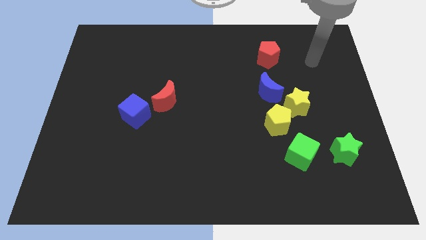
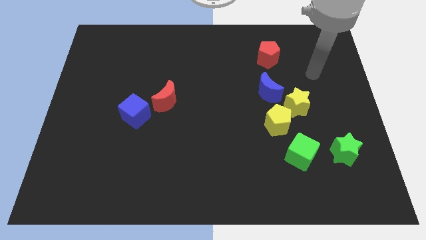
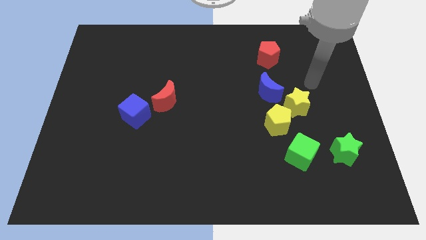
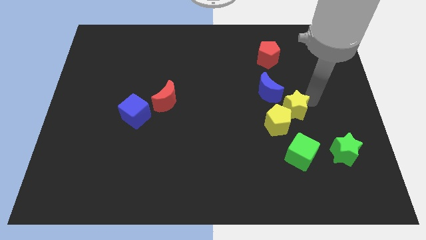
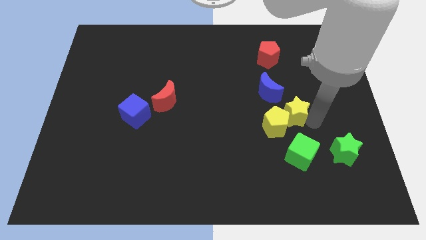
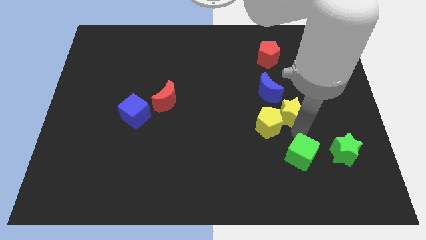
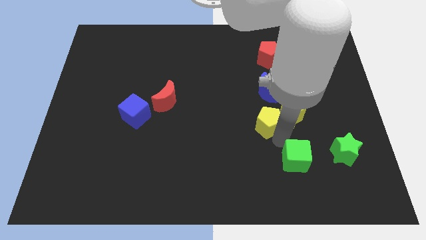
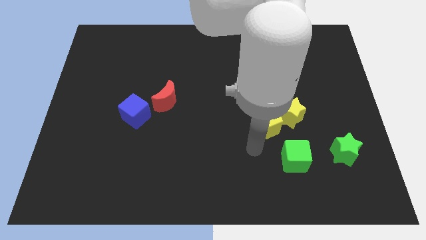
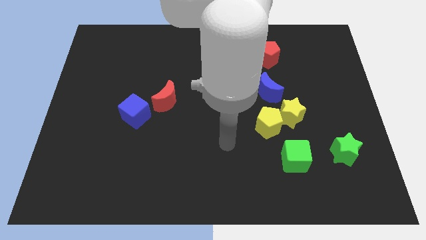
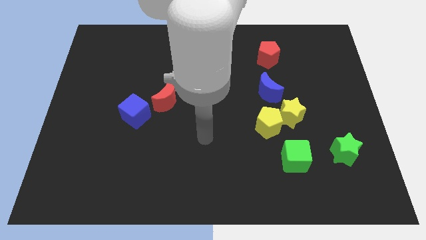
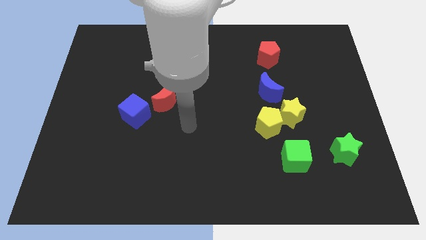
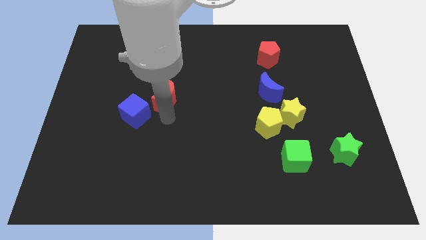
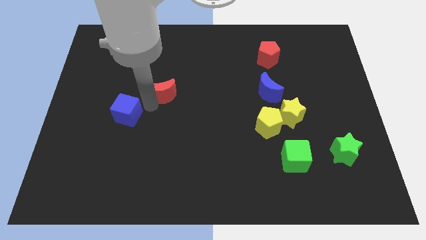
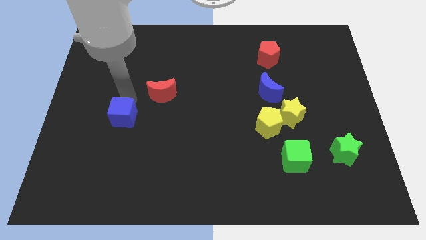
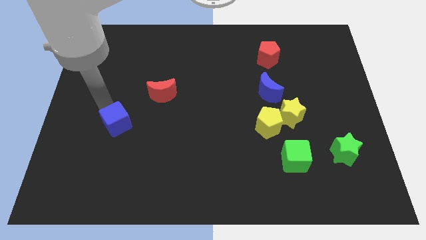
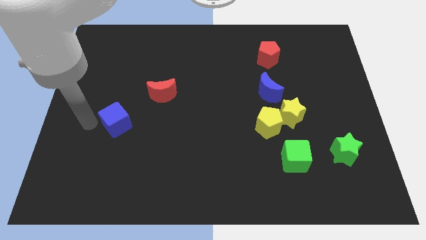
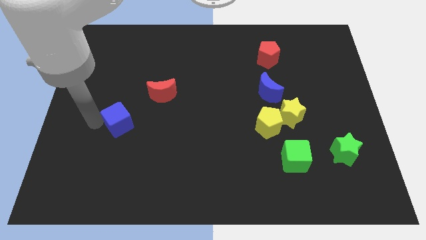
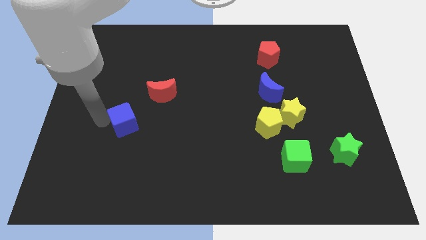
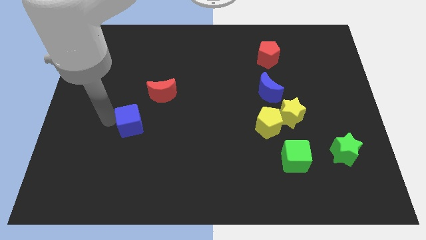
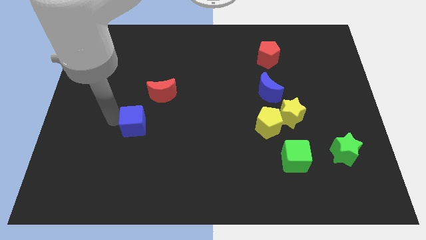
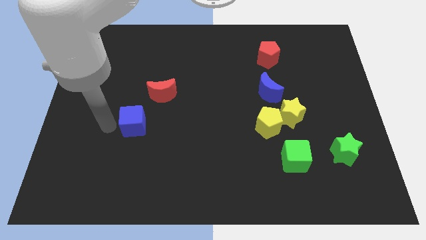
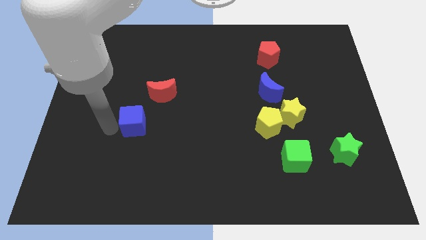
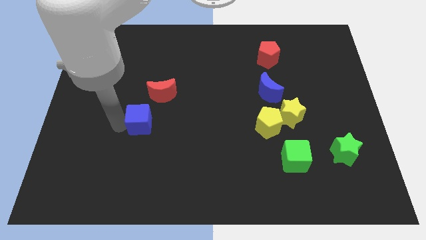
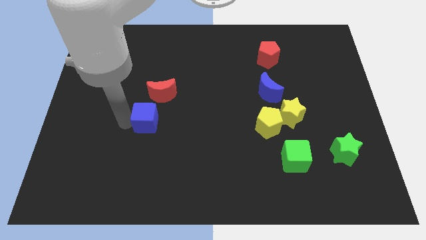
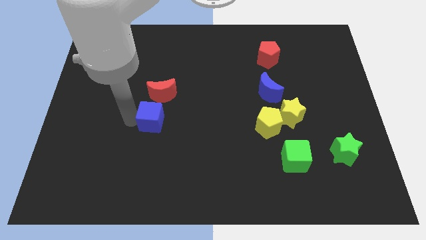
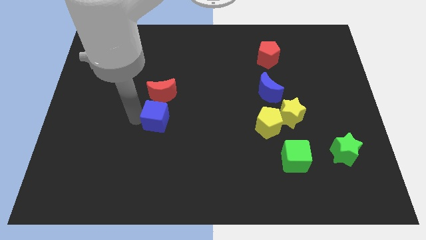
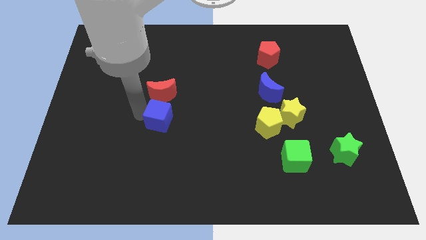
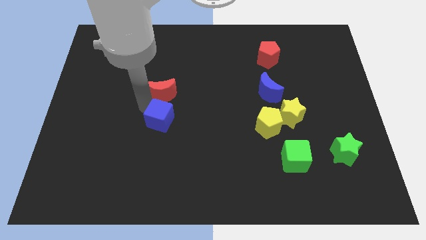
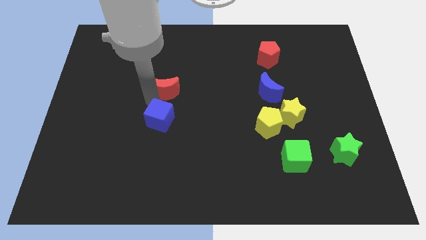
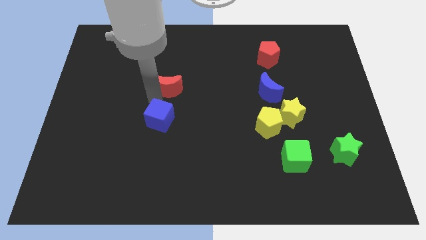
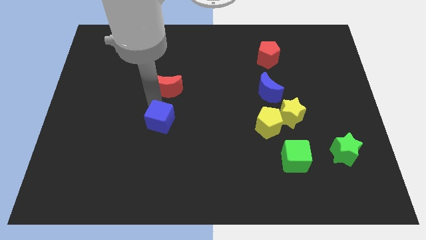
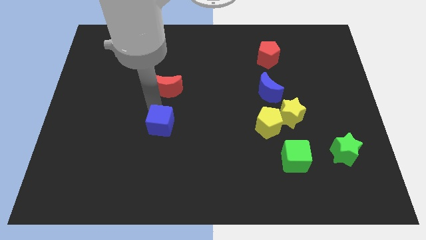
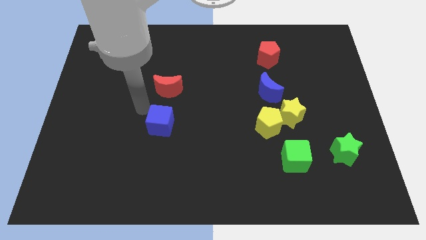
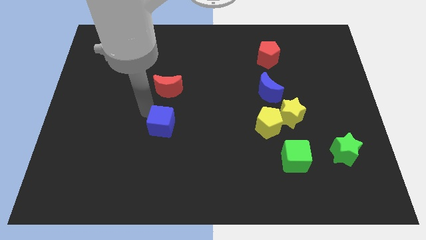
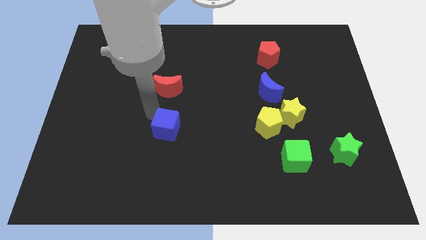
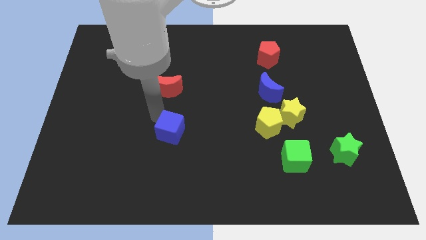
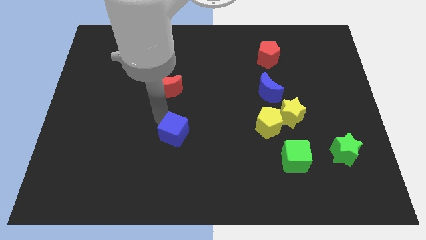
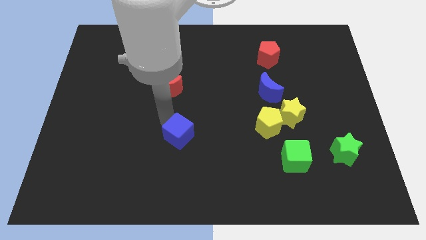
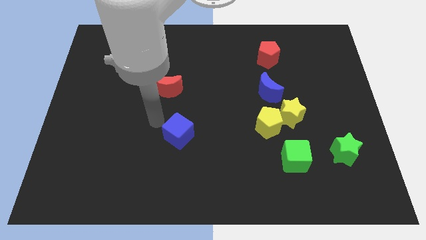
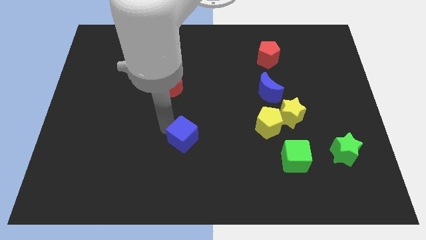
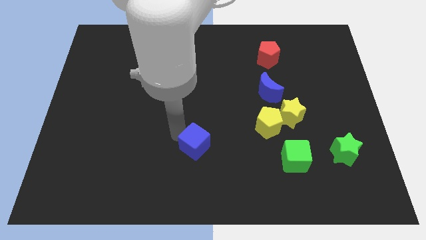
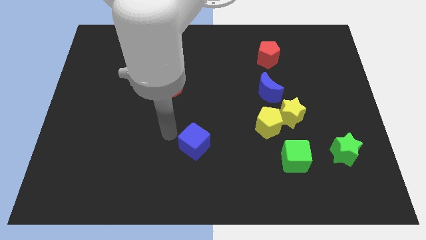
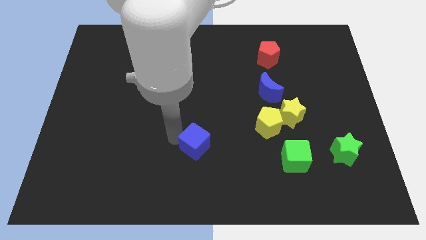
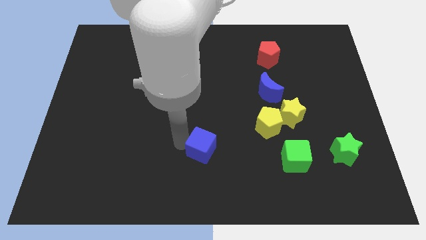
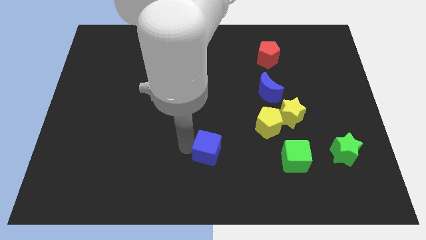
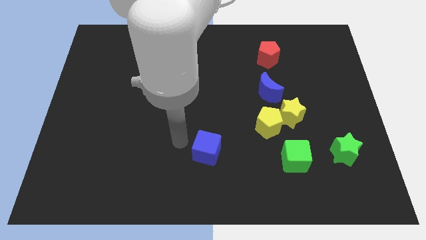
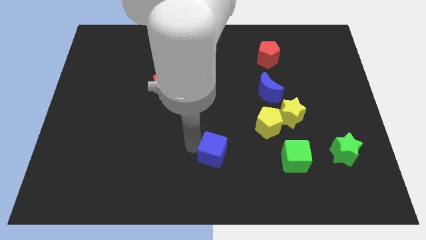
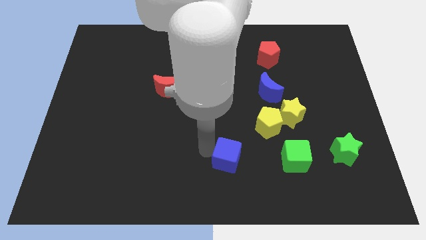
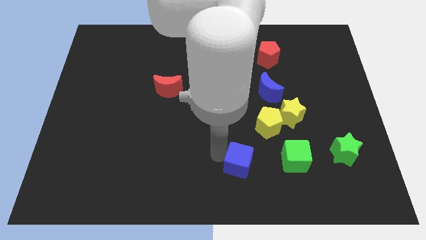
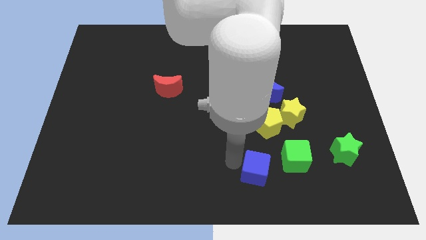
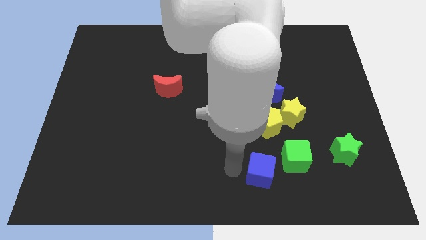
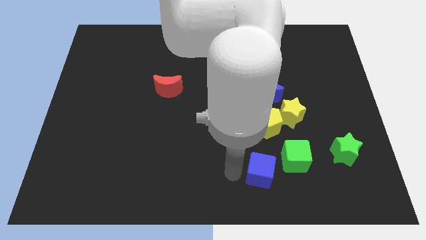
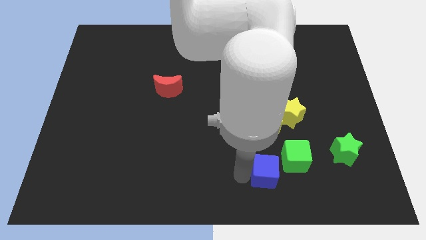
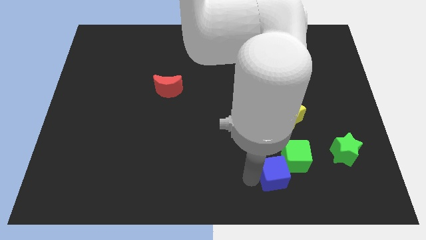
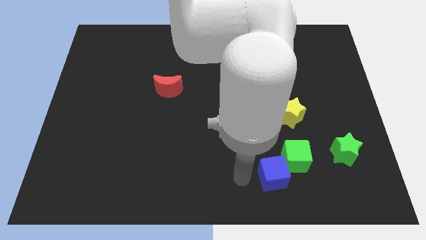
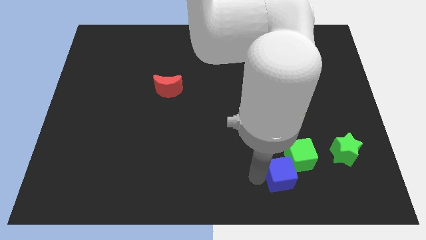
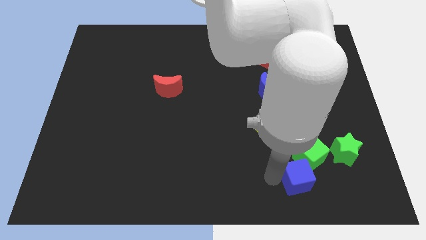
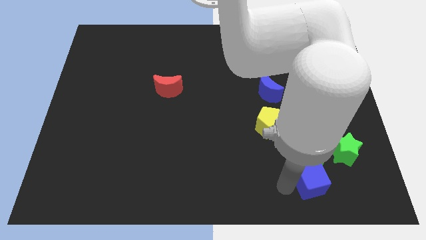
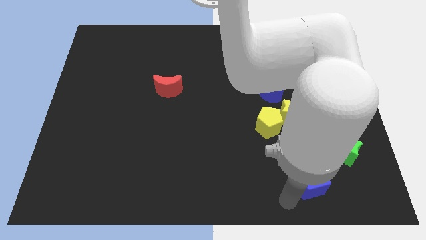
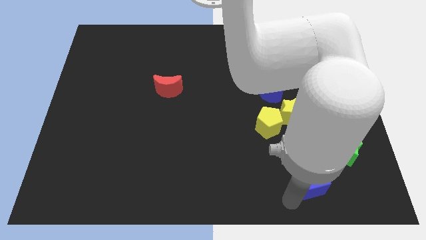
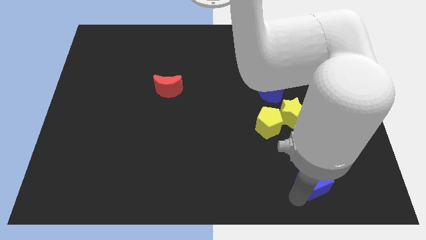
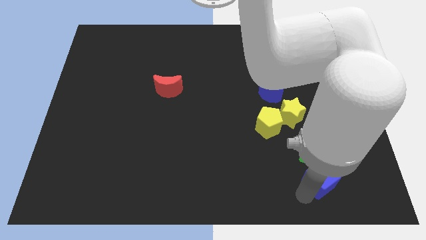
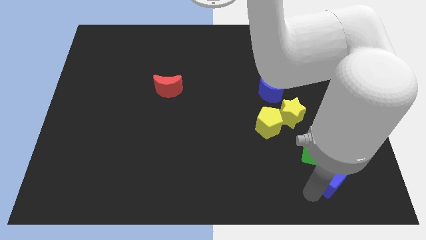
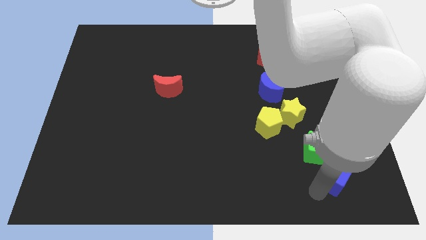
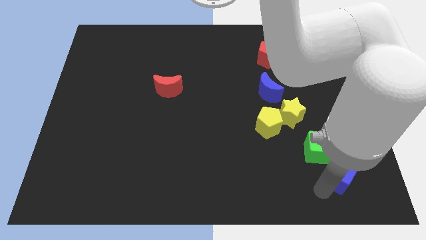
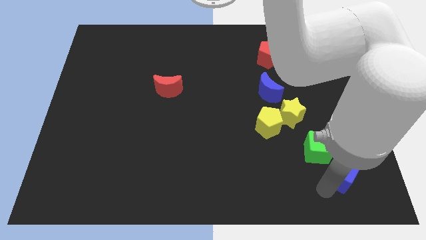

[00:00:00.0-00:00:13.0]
push the blue cube towards the green star
